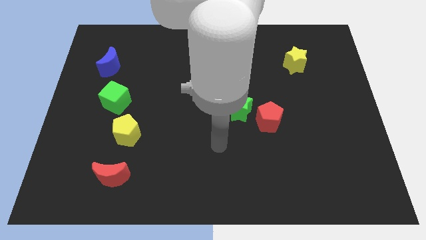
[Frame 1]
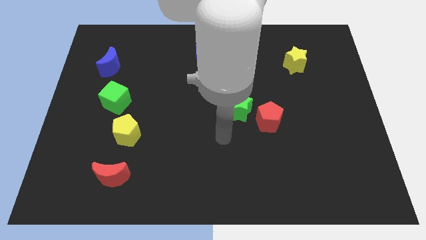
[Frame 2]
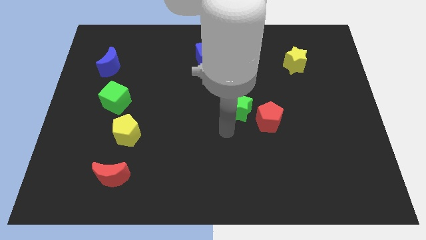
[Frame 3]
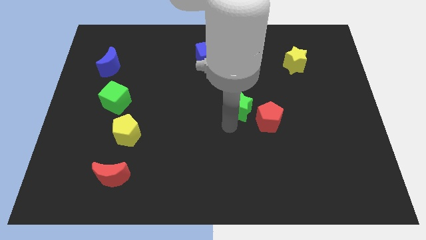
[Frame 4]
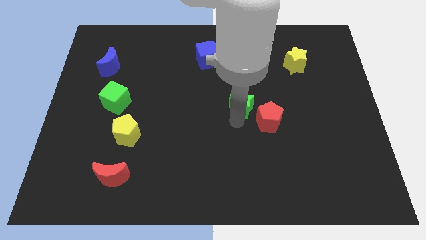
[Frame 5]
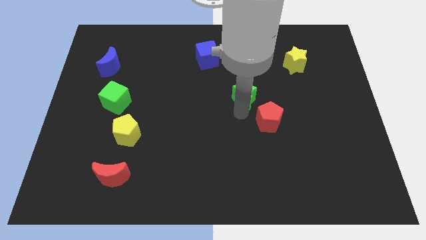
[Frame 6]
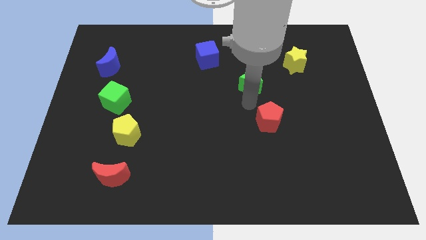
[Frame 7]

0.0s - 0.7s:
move the red pentagon away from the green star

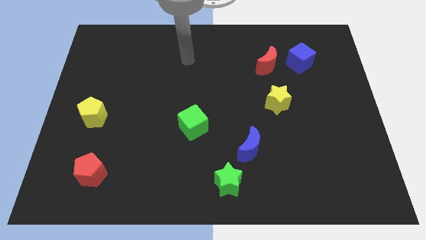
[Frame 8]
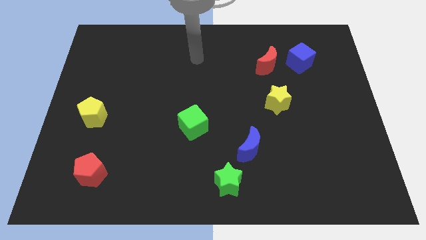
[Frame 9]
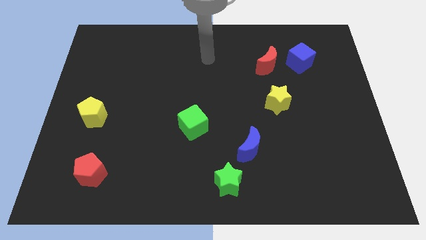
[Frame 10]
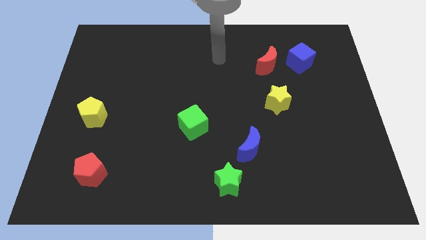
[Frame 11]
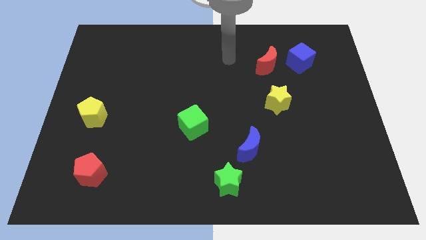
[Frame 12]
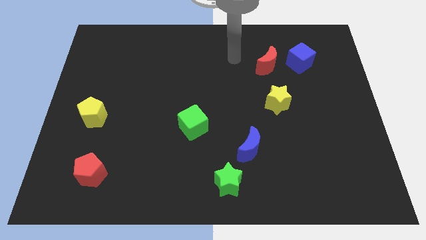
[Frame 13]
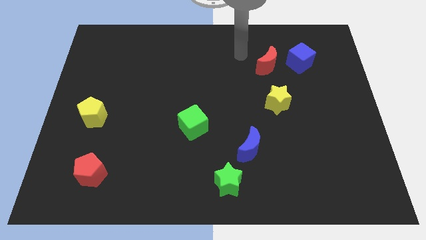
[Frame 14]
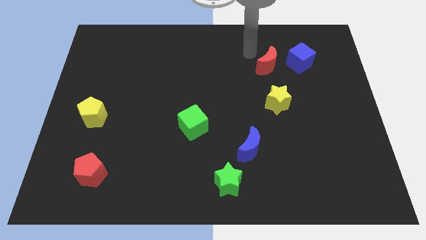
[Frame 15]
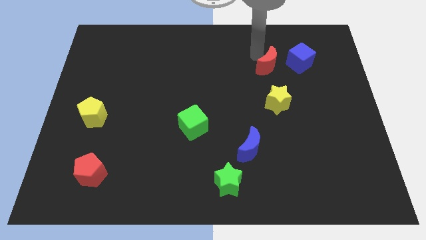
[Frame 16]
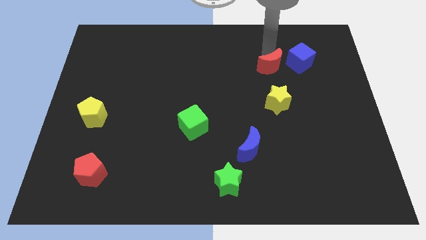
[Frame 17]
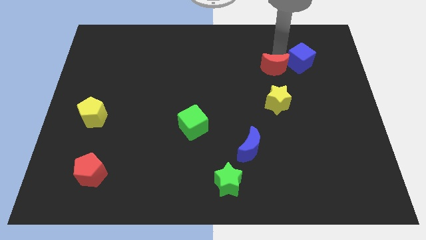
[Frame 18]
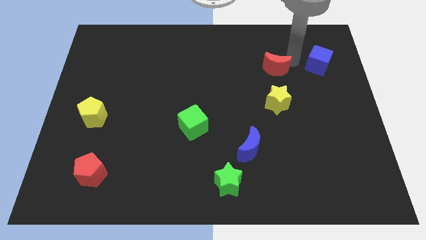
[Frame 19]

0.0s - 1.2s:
pull the red moon apart from the blue cube

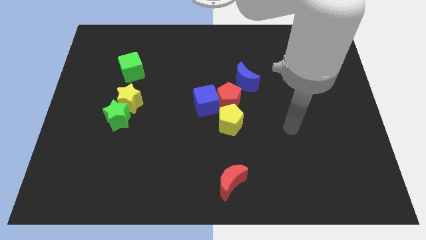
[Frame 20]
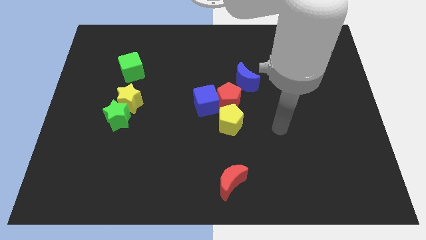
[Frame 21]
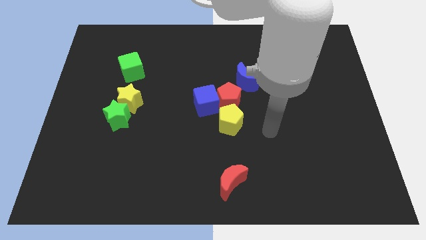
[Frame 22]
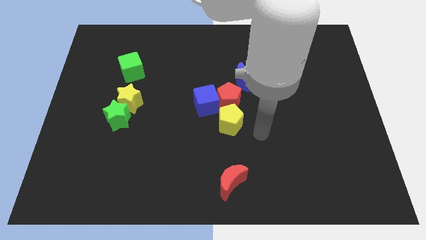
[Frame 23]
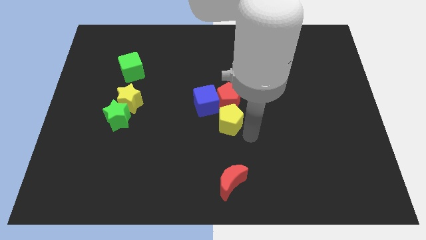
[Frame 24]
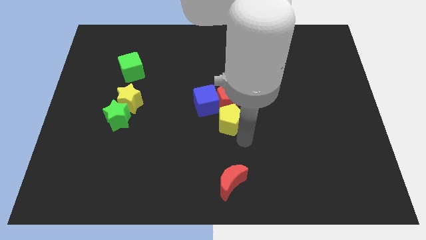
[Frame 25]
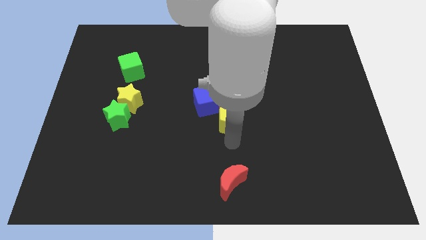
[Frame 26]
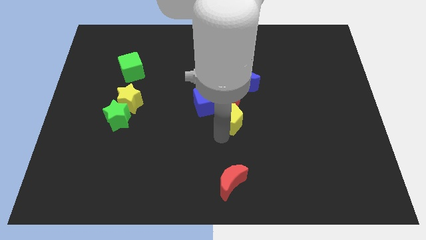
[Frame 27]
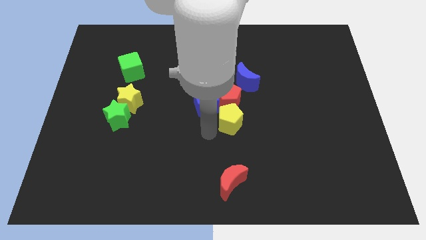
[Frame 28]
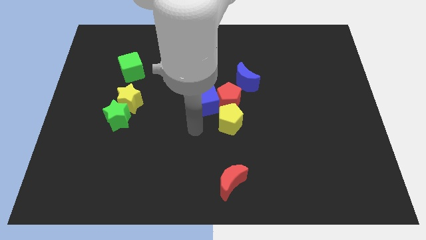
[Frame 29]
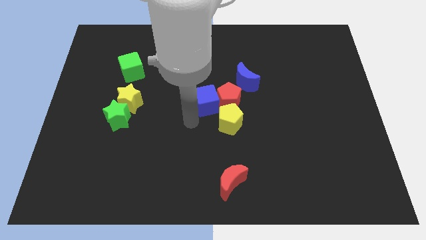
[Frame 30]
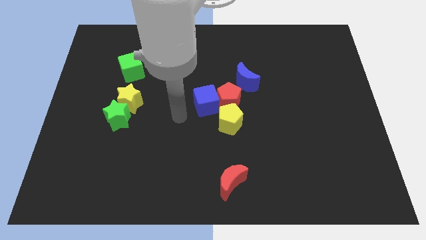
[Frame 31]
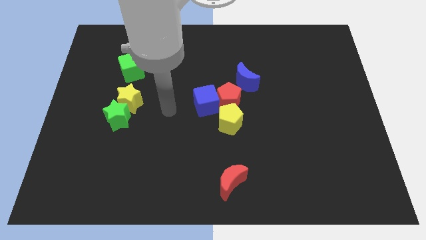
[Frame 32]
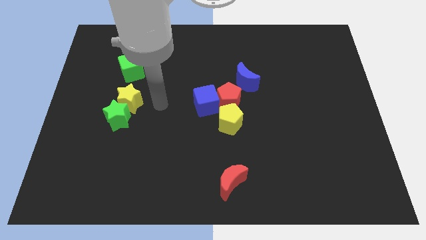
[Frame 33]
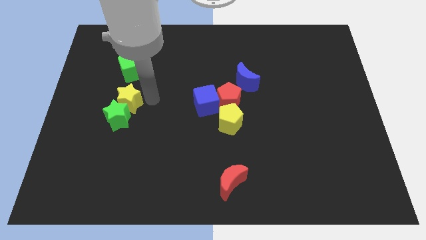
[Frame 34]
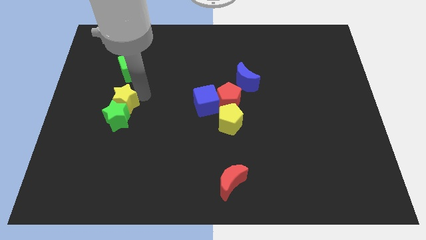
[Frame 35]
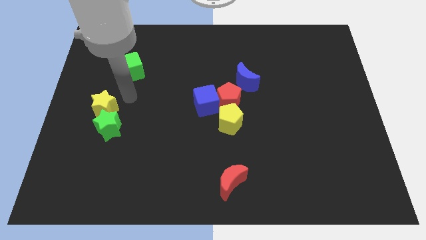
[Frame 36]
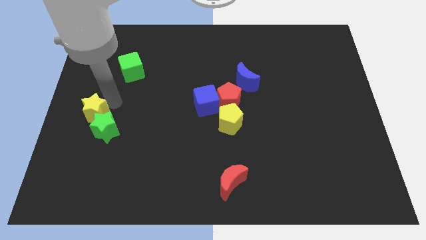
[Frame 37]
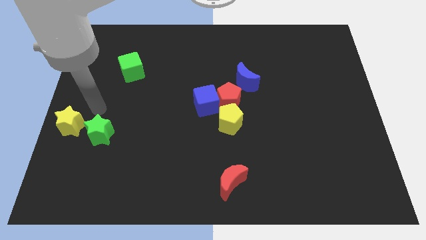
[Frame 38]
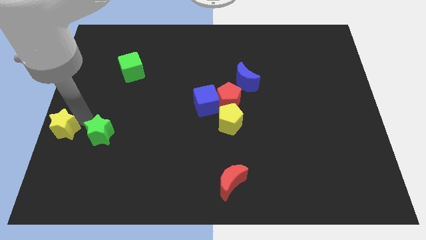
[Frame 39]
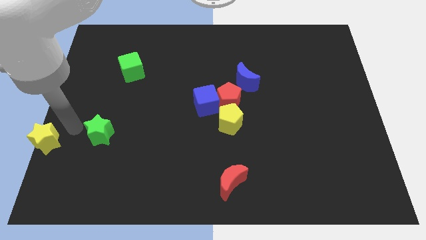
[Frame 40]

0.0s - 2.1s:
move the green star away from the yellow star

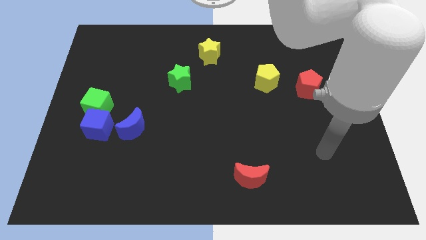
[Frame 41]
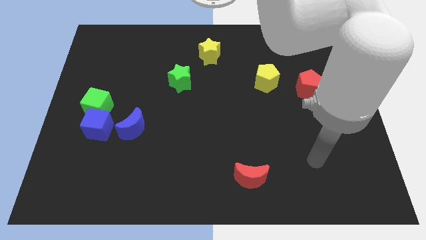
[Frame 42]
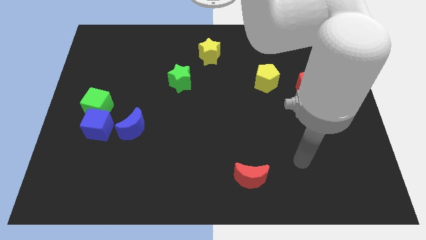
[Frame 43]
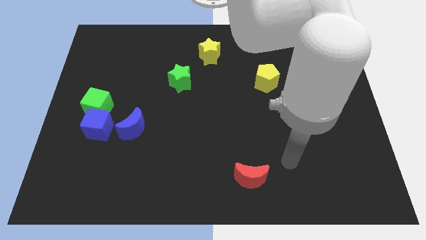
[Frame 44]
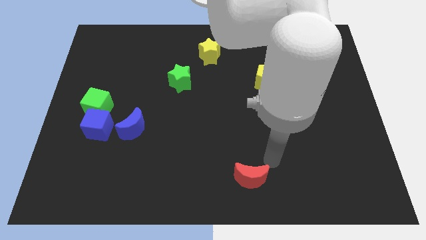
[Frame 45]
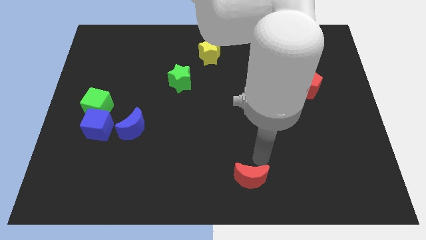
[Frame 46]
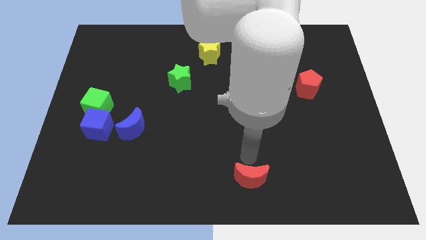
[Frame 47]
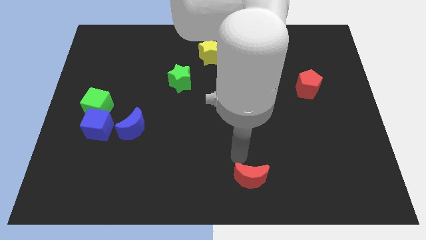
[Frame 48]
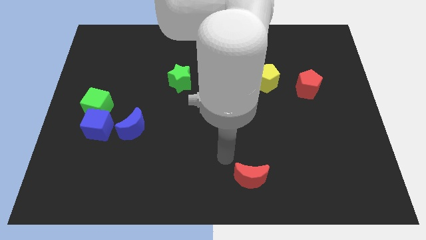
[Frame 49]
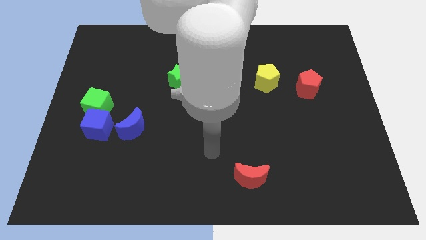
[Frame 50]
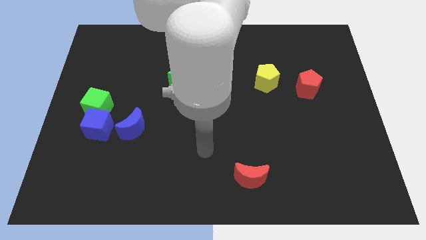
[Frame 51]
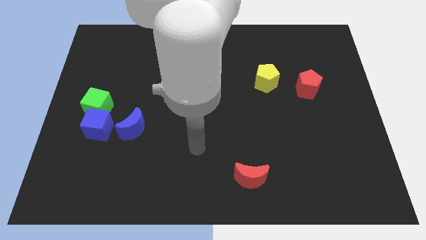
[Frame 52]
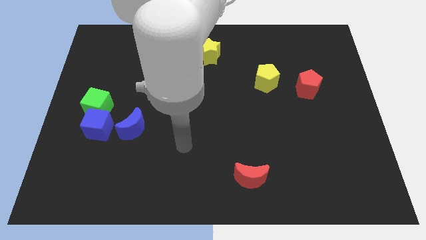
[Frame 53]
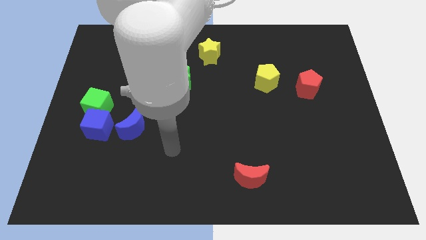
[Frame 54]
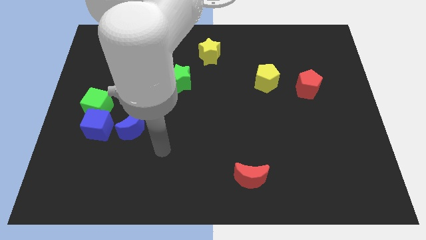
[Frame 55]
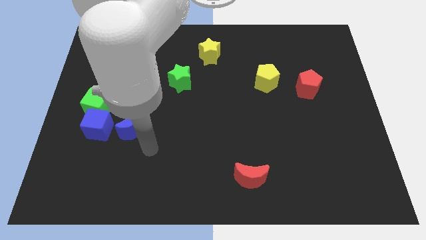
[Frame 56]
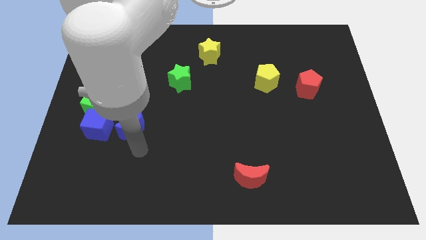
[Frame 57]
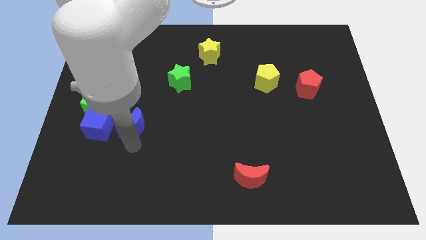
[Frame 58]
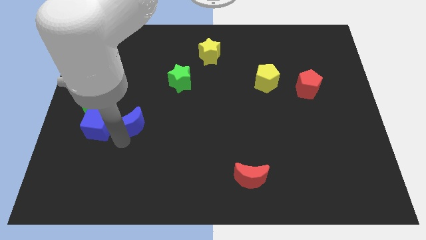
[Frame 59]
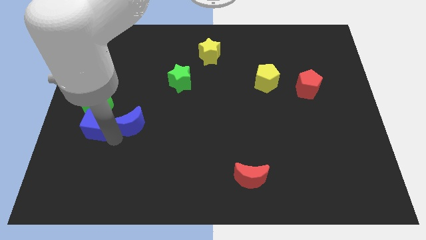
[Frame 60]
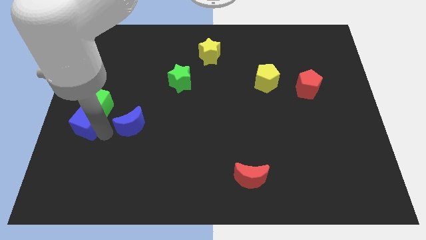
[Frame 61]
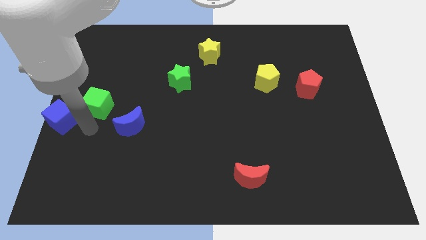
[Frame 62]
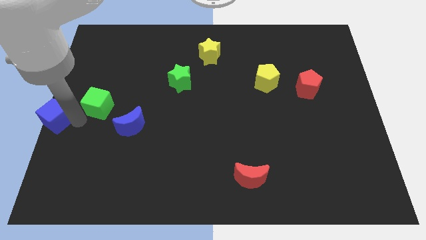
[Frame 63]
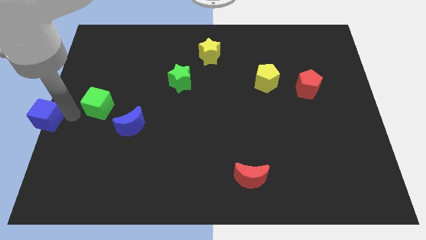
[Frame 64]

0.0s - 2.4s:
pull the green cube apart from the blue cube

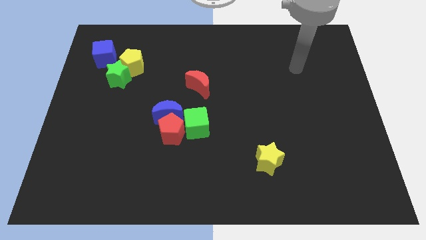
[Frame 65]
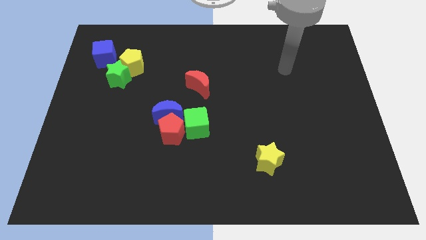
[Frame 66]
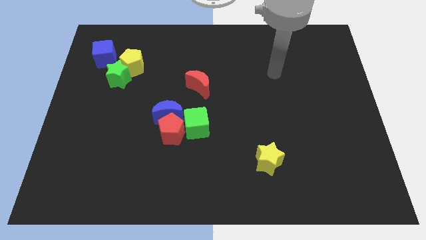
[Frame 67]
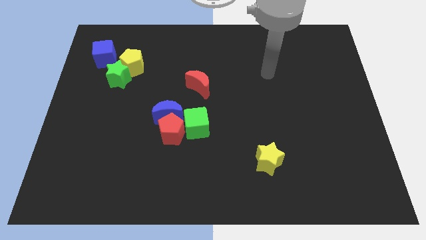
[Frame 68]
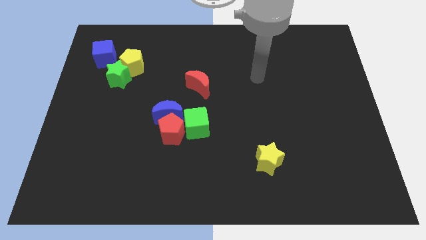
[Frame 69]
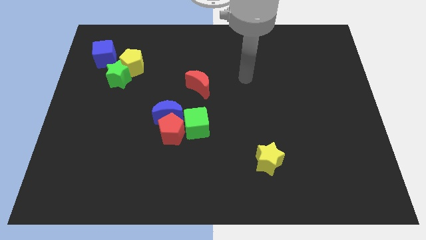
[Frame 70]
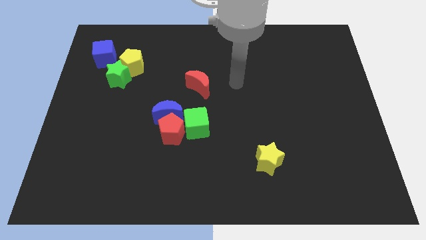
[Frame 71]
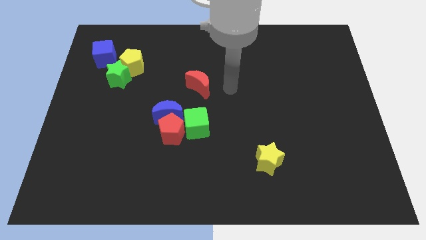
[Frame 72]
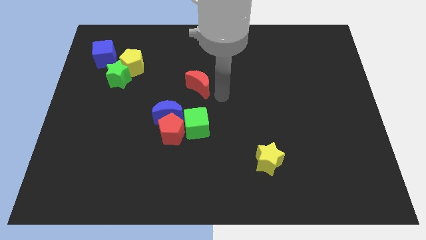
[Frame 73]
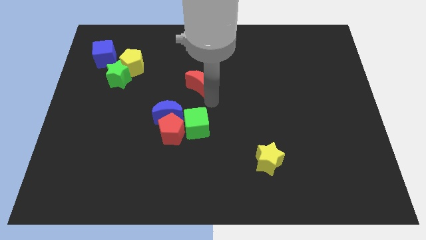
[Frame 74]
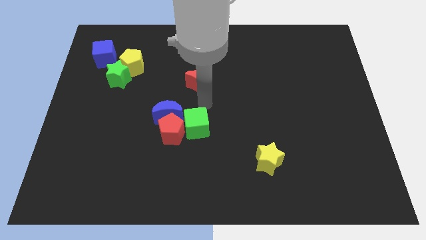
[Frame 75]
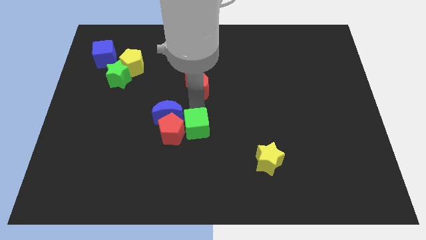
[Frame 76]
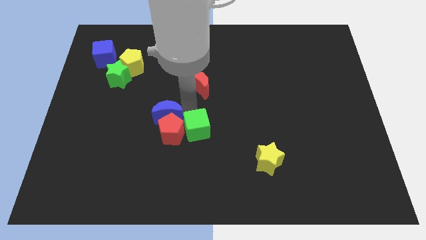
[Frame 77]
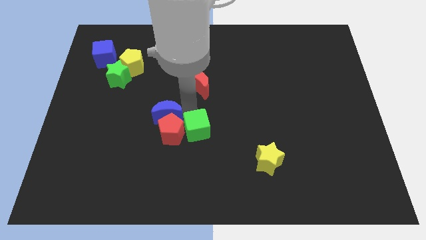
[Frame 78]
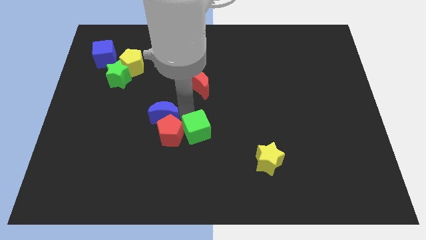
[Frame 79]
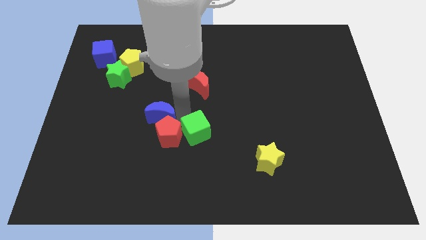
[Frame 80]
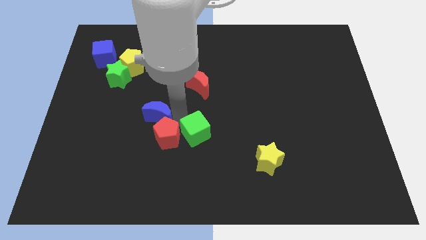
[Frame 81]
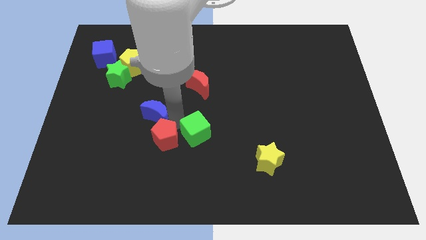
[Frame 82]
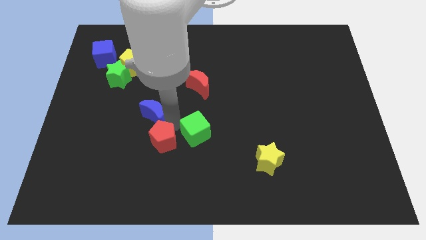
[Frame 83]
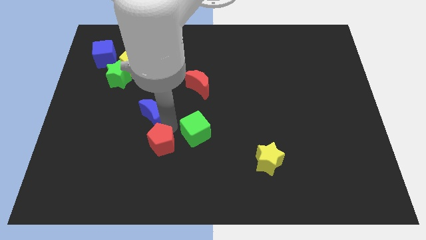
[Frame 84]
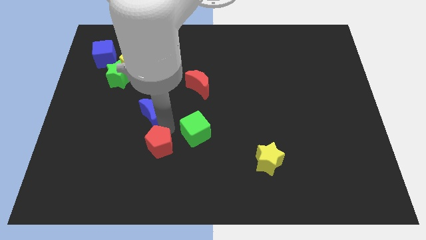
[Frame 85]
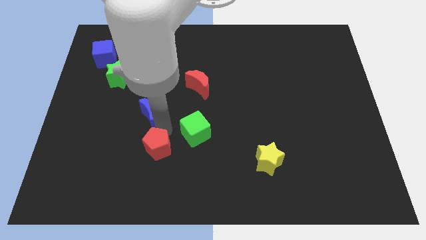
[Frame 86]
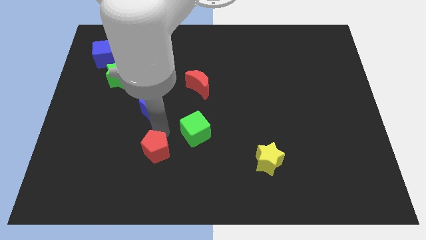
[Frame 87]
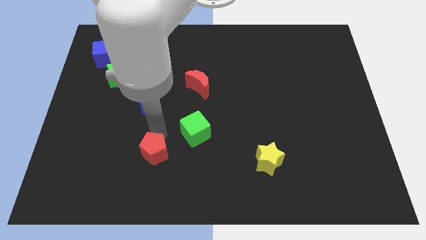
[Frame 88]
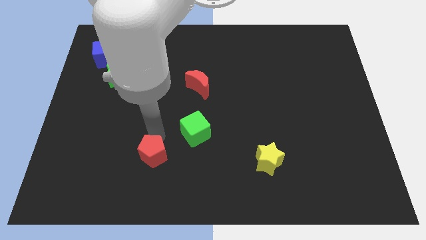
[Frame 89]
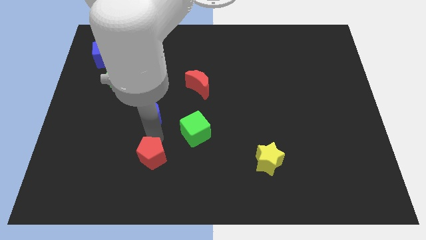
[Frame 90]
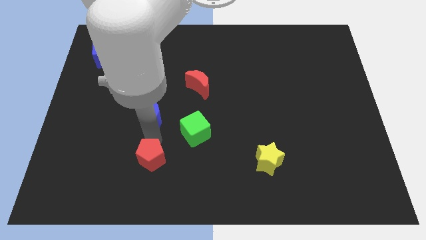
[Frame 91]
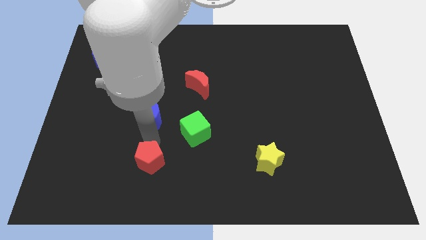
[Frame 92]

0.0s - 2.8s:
separate the red pentagon from the blue moon and green cube
